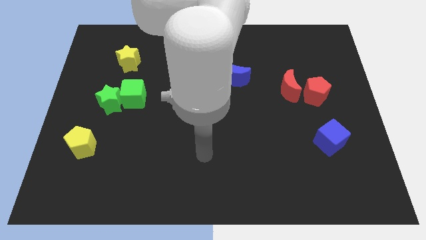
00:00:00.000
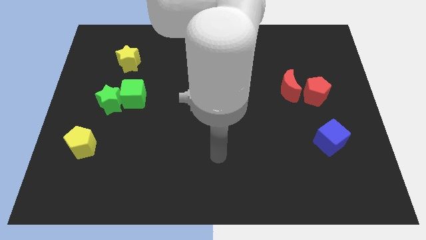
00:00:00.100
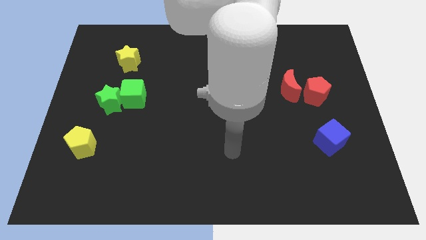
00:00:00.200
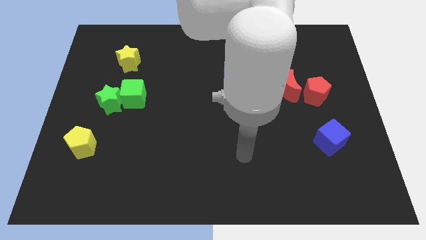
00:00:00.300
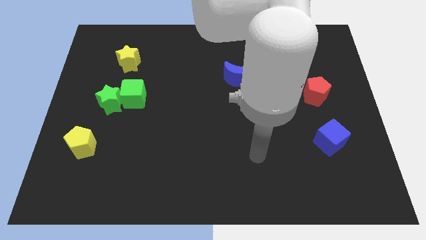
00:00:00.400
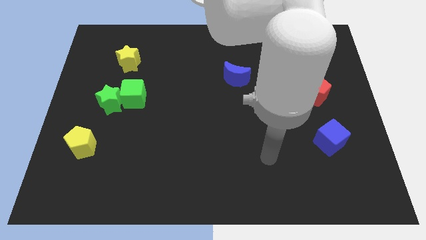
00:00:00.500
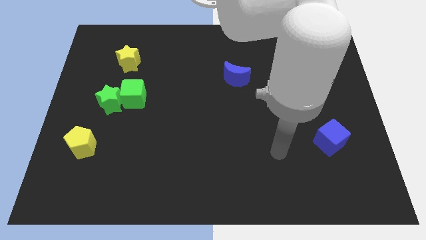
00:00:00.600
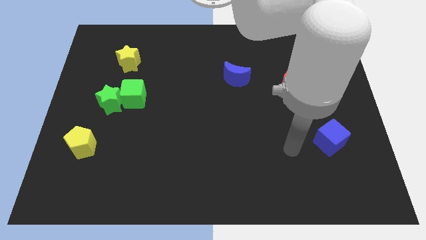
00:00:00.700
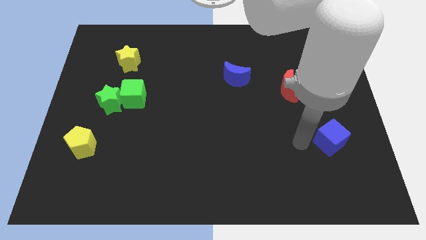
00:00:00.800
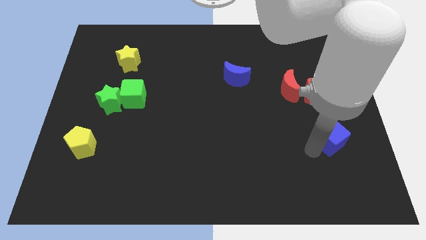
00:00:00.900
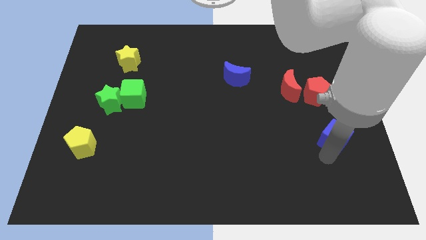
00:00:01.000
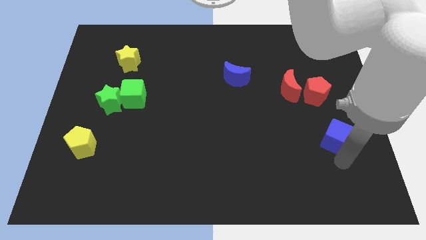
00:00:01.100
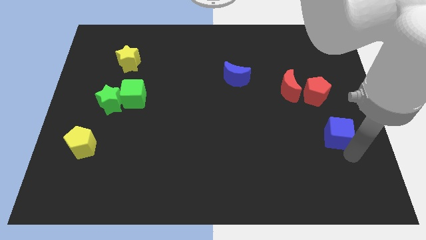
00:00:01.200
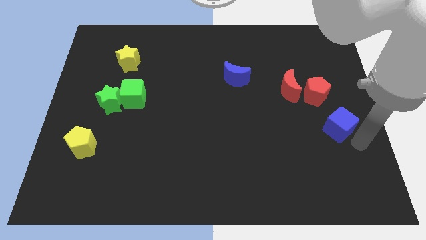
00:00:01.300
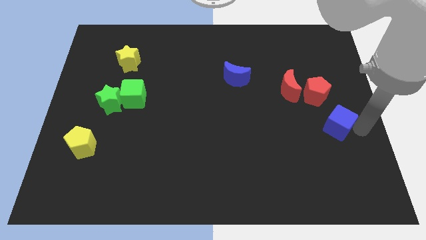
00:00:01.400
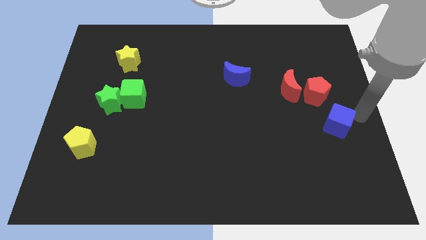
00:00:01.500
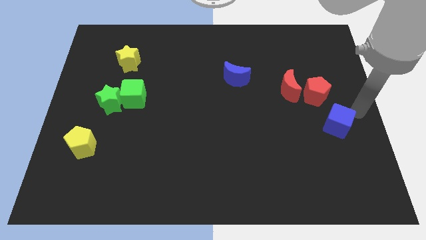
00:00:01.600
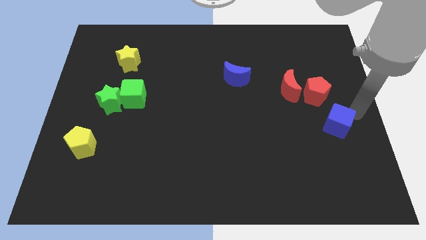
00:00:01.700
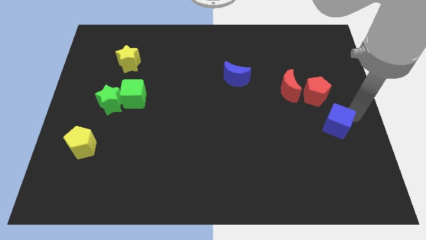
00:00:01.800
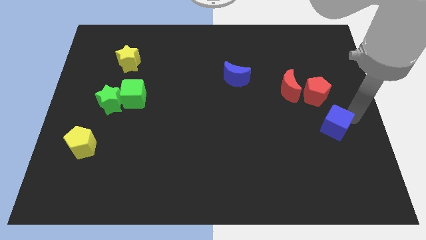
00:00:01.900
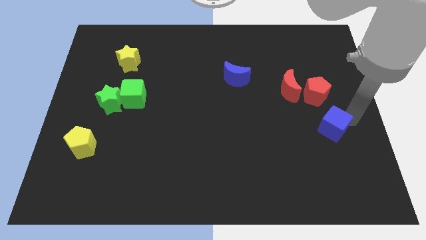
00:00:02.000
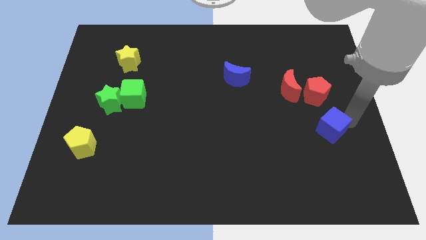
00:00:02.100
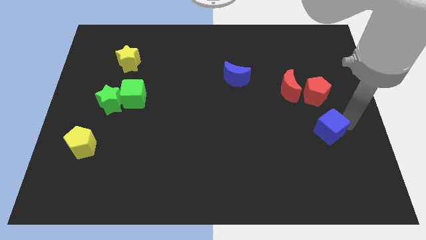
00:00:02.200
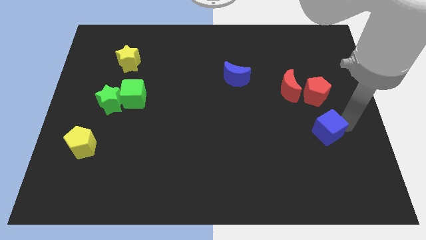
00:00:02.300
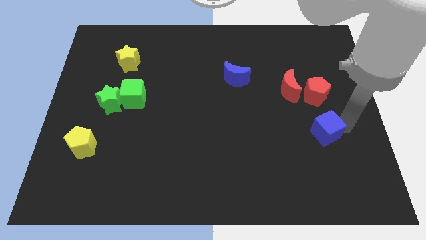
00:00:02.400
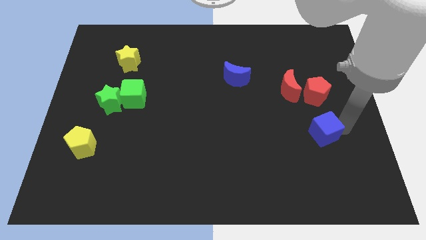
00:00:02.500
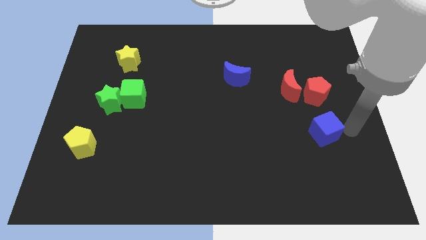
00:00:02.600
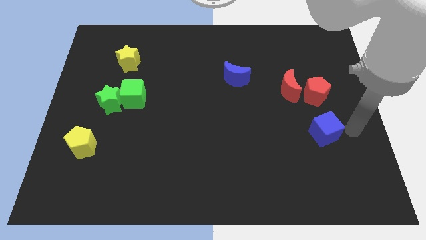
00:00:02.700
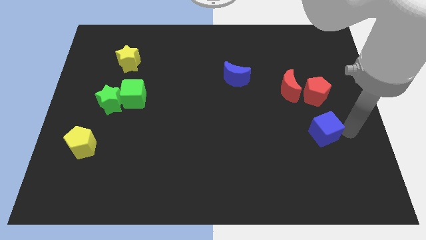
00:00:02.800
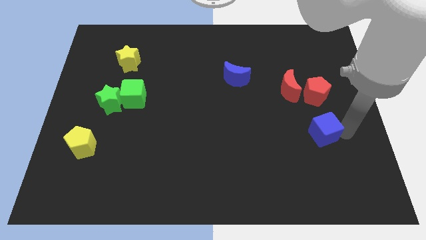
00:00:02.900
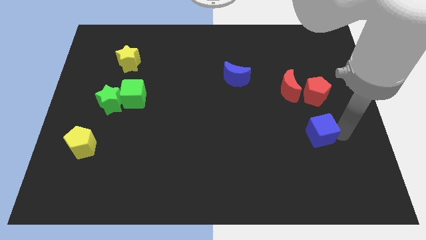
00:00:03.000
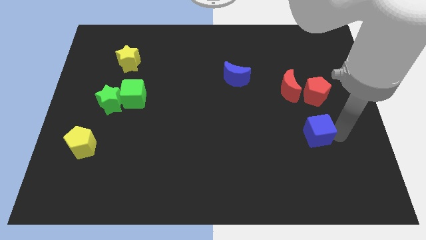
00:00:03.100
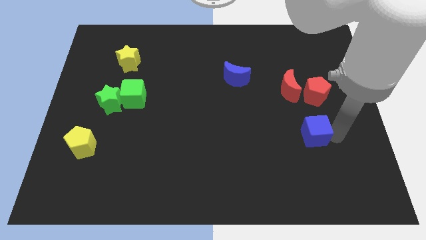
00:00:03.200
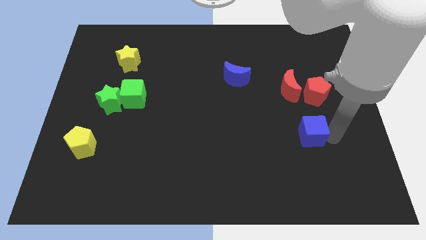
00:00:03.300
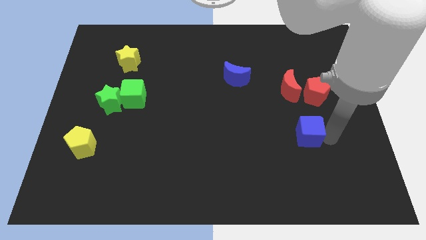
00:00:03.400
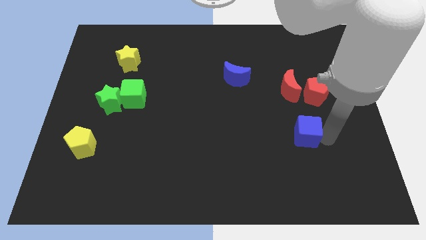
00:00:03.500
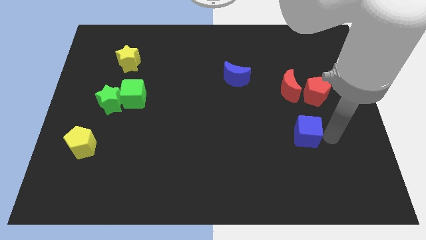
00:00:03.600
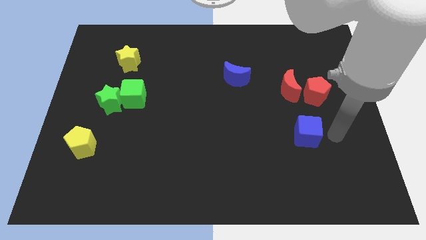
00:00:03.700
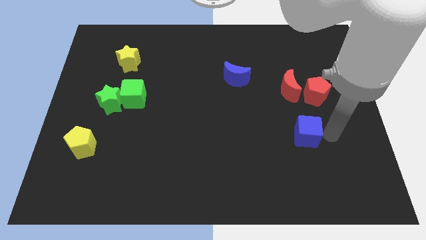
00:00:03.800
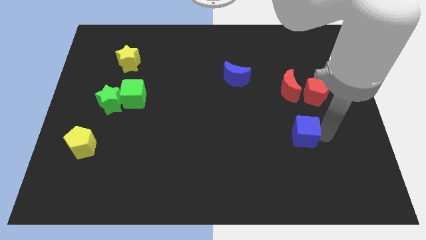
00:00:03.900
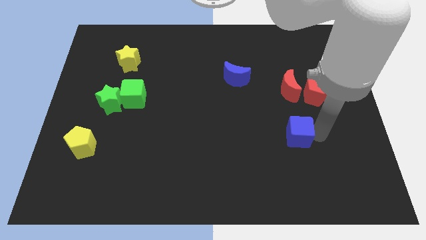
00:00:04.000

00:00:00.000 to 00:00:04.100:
slide the blue cube to the left a little

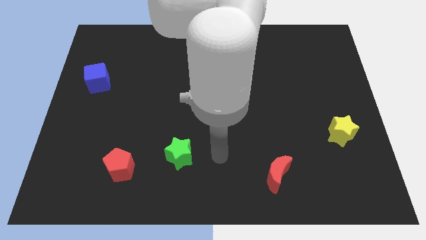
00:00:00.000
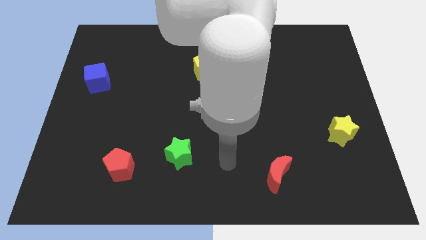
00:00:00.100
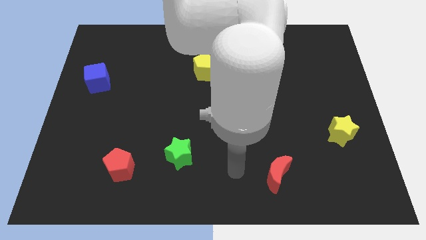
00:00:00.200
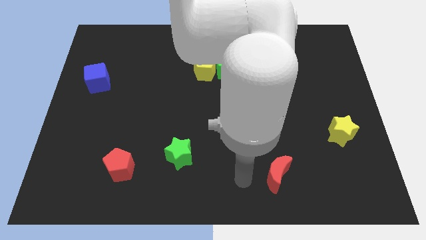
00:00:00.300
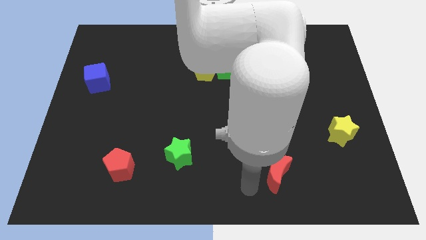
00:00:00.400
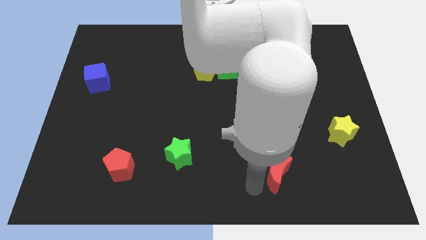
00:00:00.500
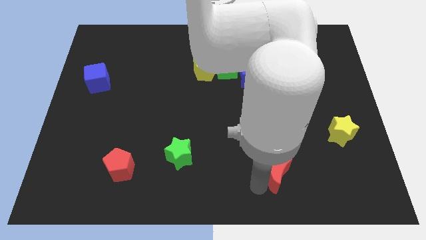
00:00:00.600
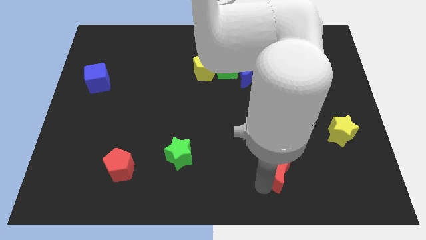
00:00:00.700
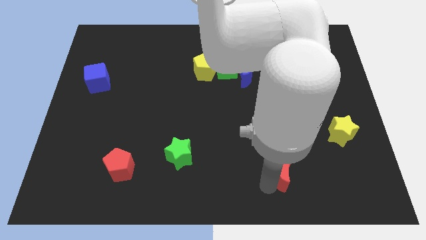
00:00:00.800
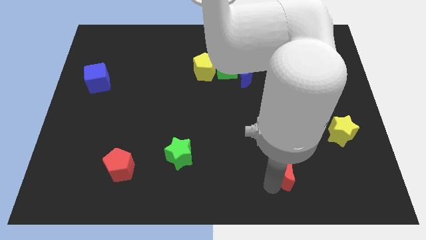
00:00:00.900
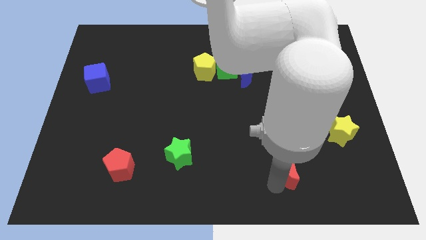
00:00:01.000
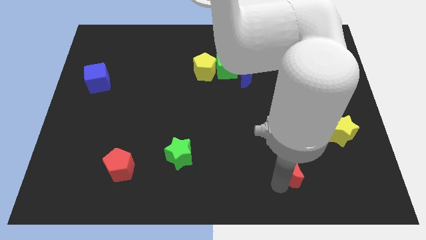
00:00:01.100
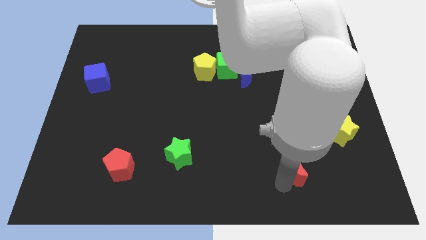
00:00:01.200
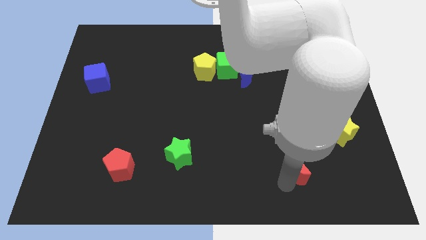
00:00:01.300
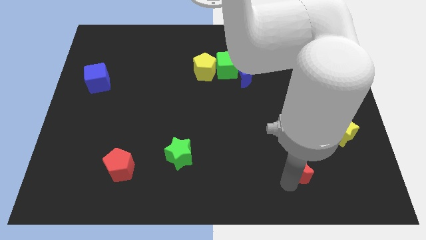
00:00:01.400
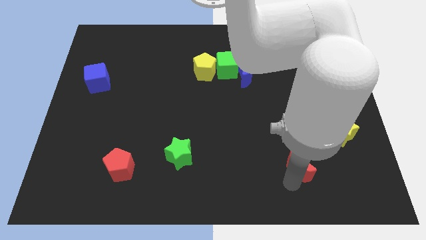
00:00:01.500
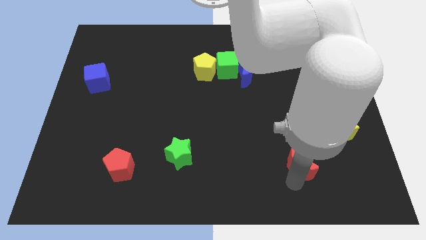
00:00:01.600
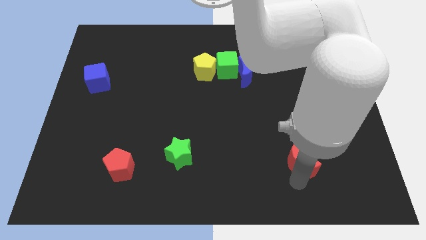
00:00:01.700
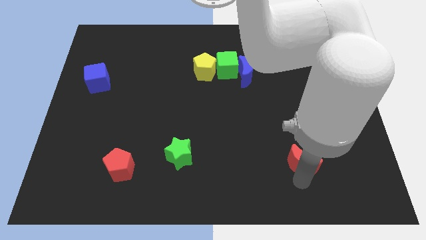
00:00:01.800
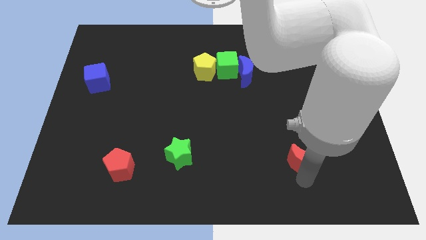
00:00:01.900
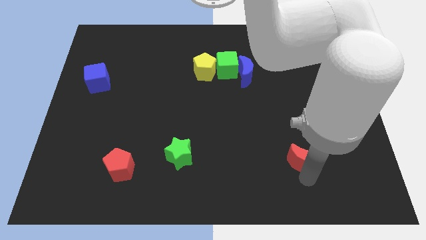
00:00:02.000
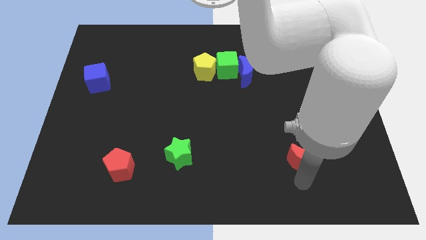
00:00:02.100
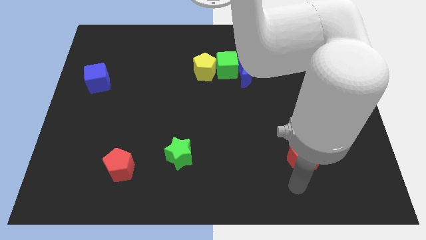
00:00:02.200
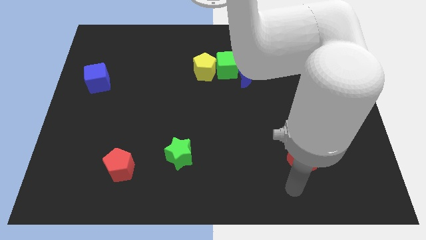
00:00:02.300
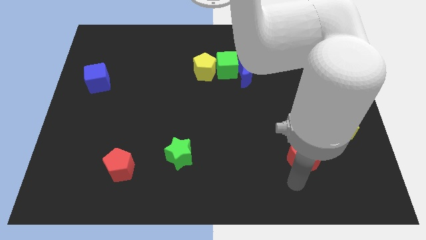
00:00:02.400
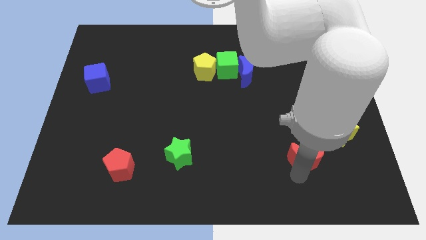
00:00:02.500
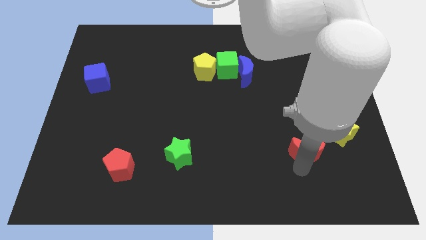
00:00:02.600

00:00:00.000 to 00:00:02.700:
move the red moon up and to the right a little

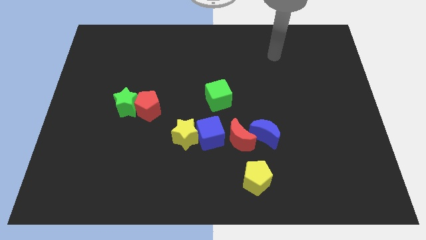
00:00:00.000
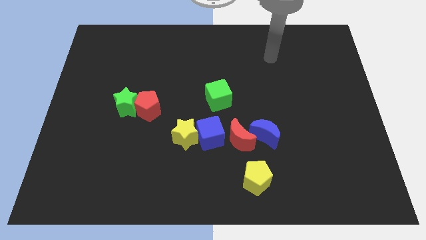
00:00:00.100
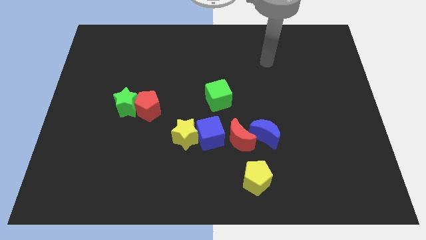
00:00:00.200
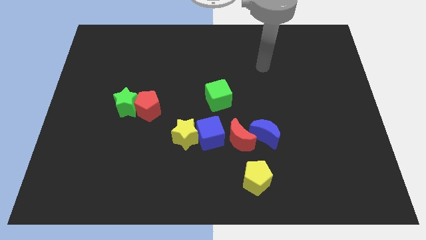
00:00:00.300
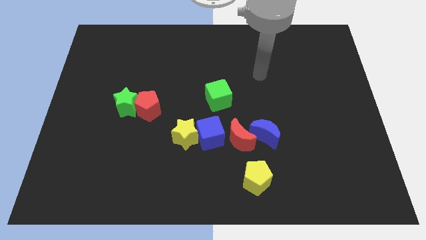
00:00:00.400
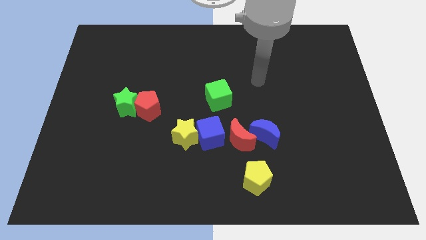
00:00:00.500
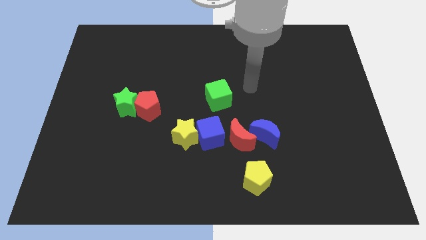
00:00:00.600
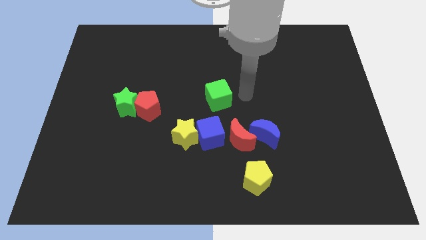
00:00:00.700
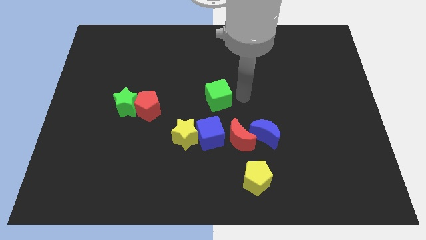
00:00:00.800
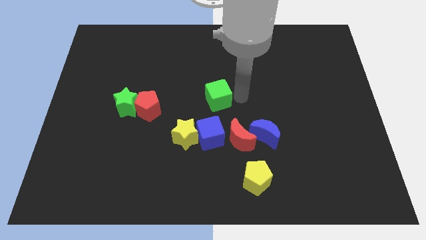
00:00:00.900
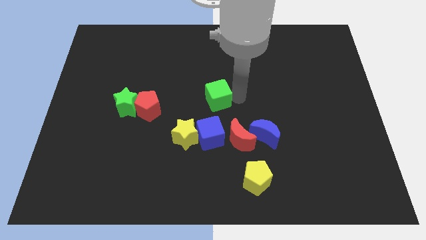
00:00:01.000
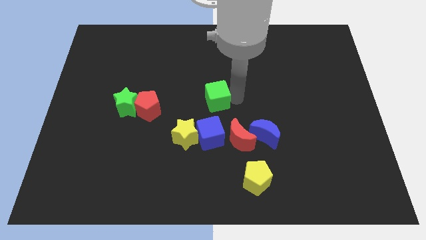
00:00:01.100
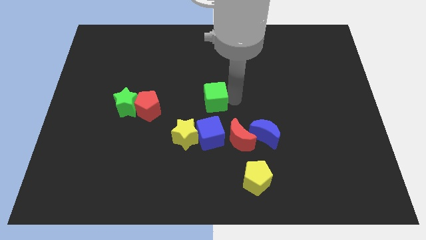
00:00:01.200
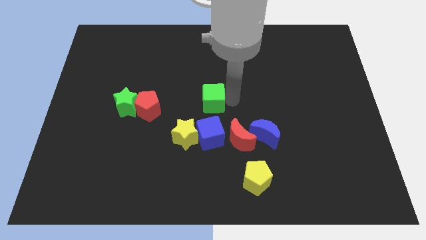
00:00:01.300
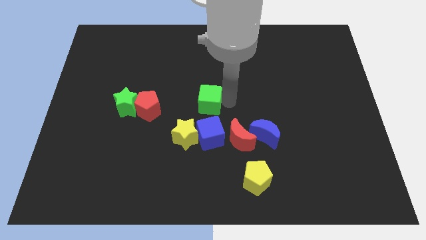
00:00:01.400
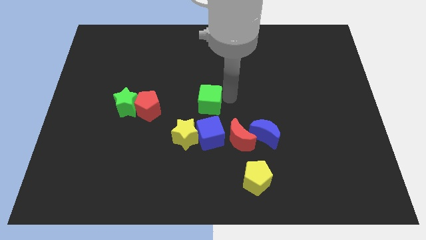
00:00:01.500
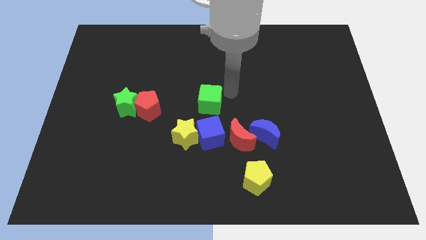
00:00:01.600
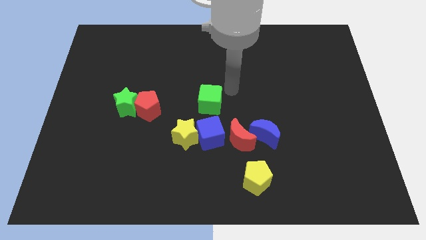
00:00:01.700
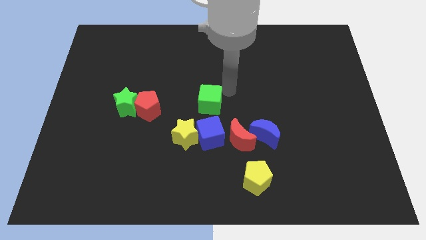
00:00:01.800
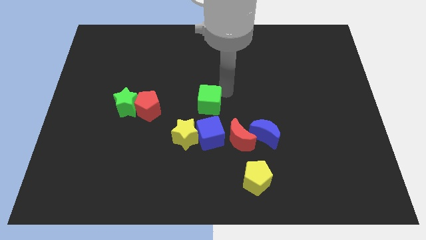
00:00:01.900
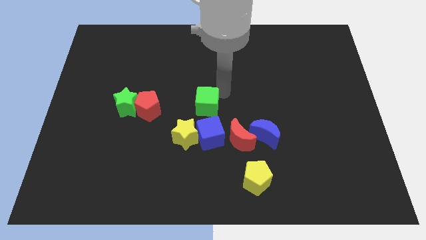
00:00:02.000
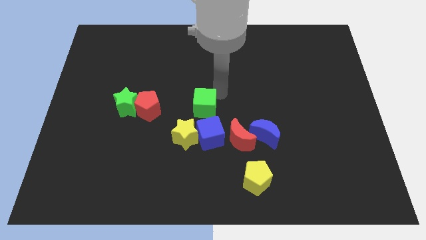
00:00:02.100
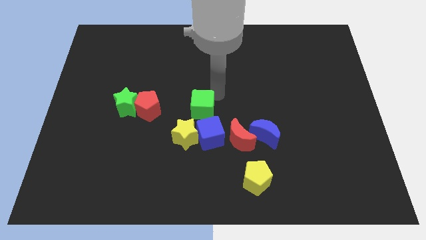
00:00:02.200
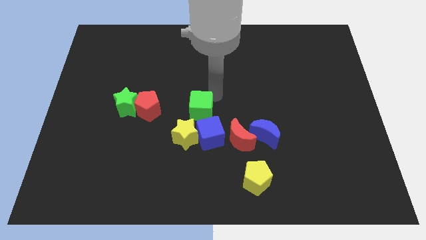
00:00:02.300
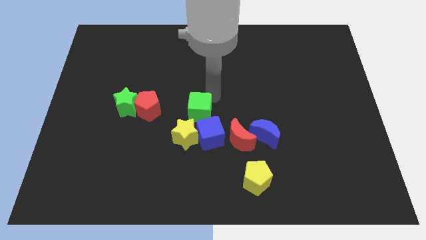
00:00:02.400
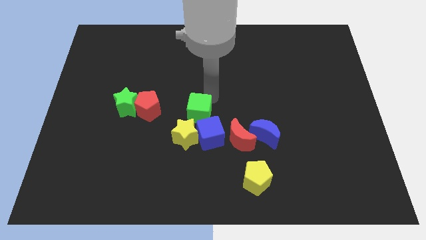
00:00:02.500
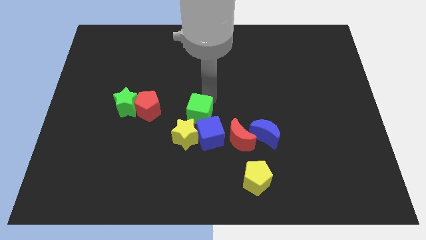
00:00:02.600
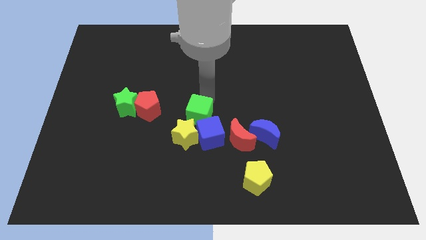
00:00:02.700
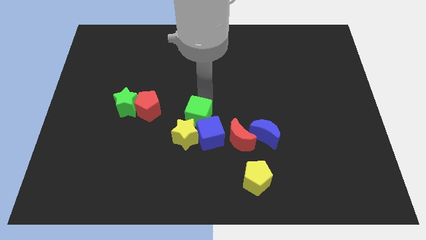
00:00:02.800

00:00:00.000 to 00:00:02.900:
slightly push the green cube downwards and to the left
